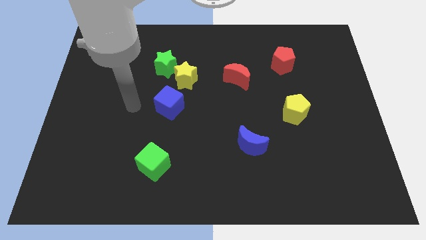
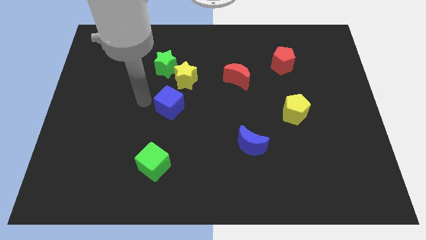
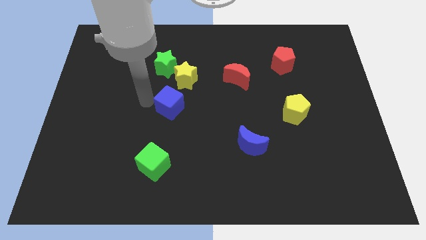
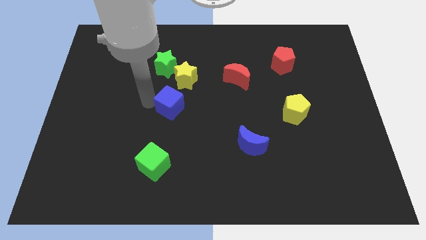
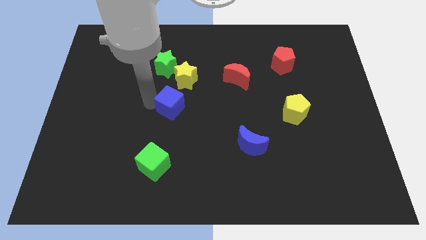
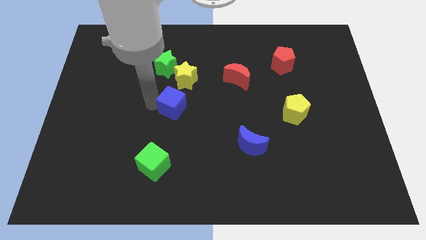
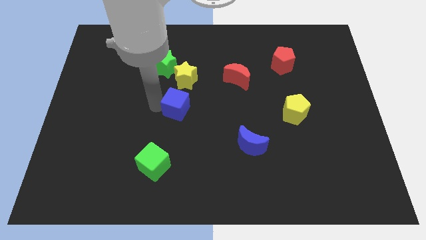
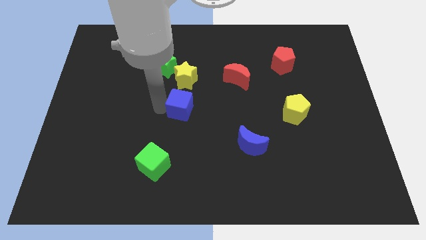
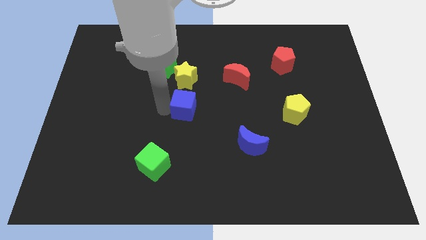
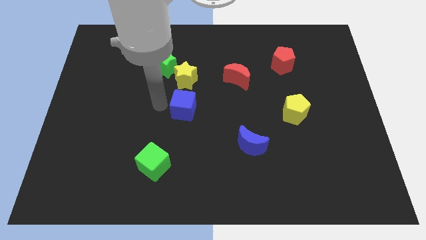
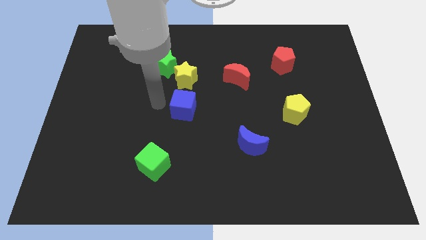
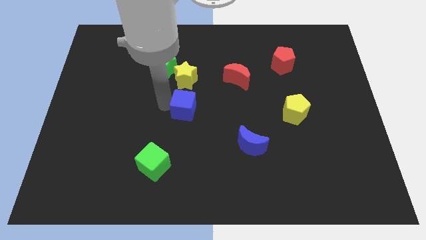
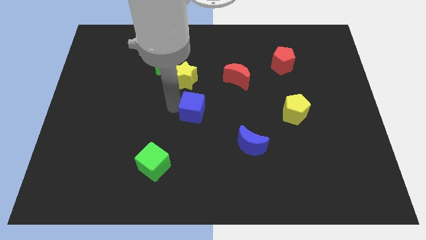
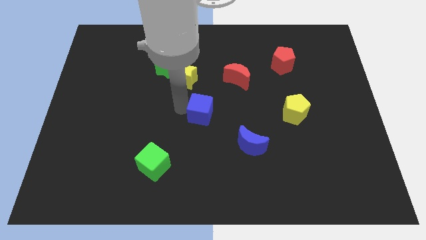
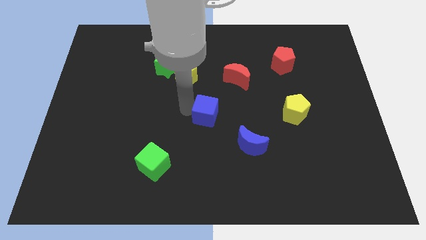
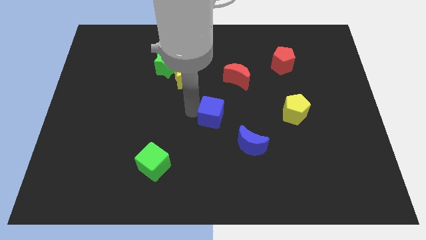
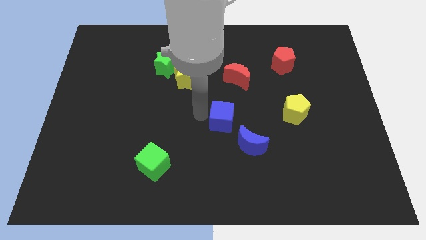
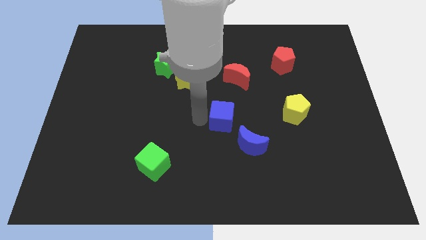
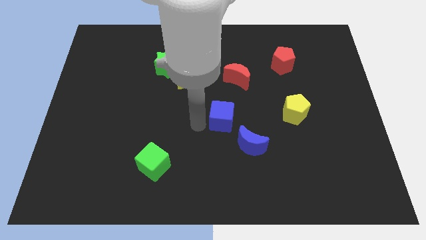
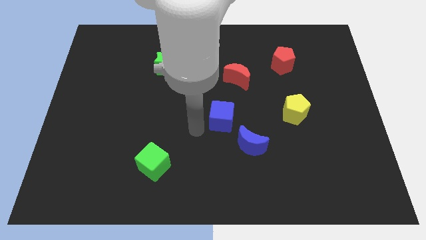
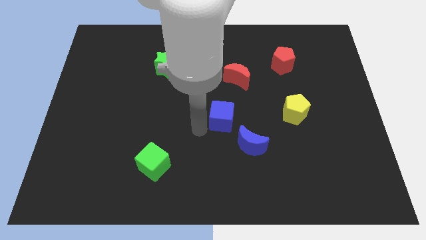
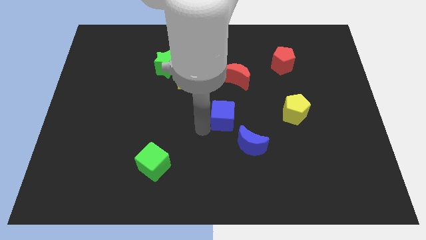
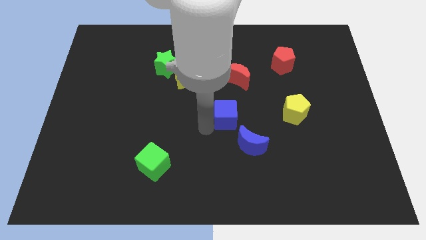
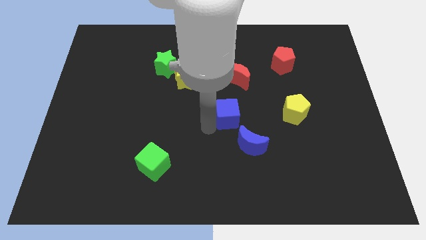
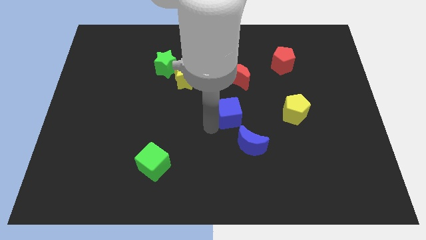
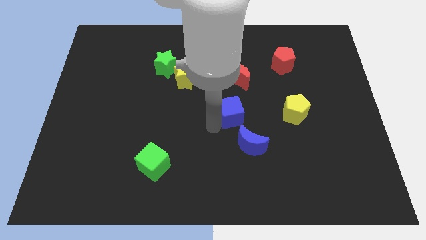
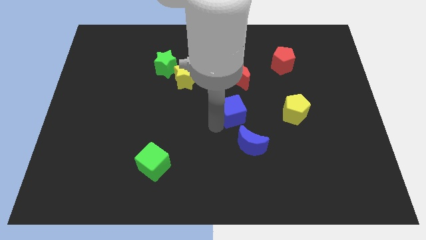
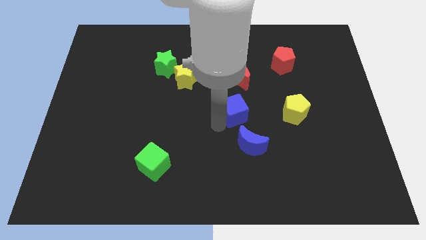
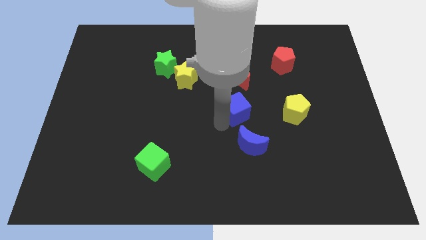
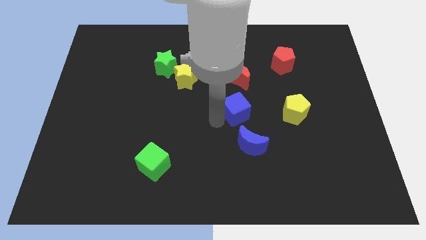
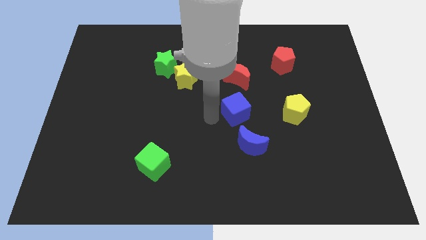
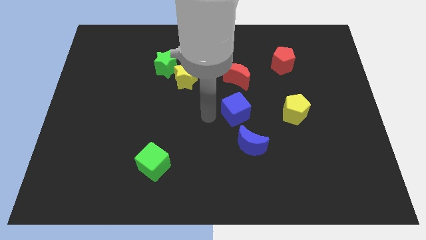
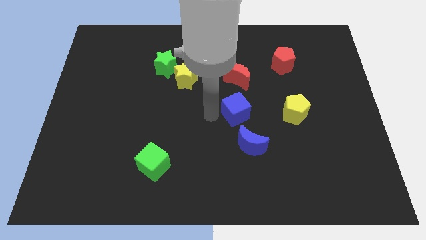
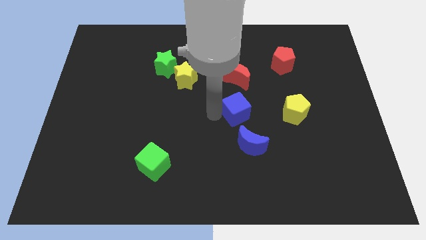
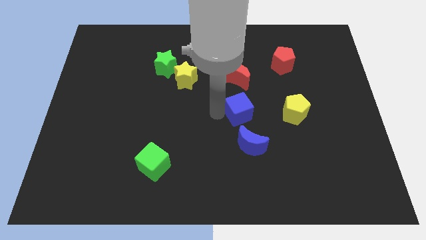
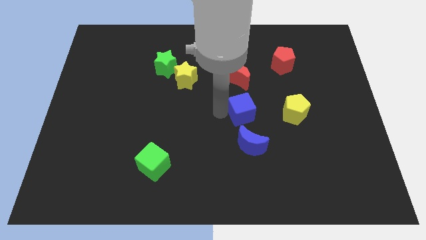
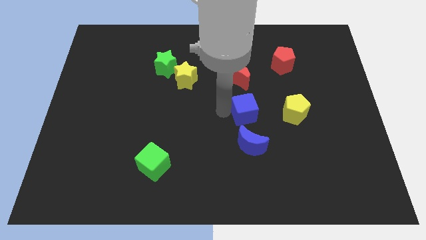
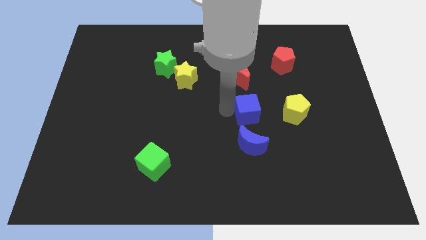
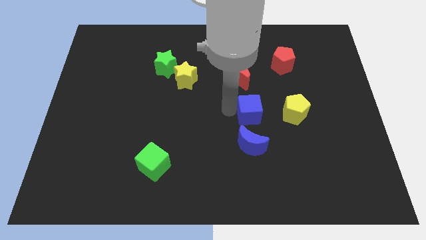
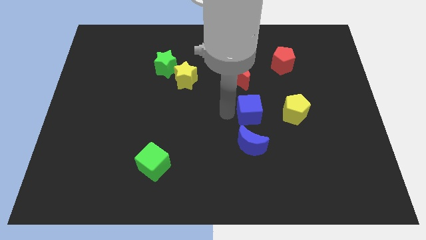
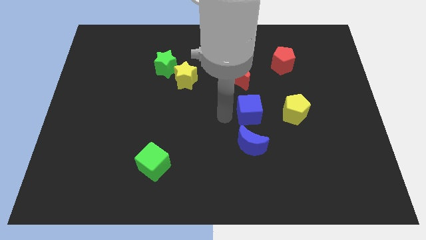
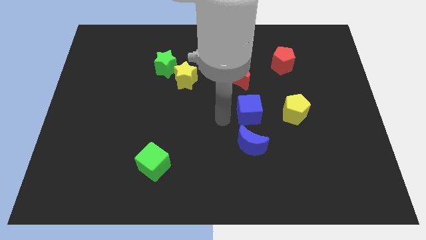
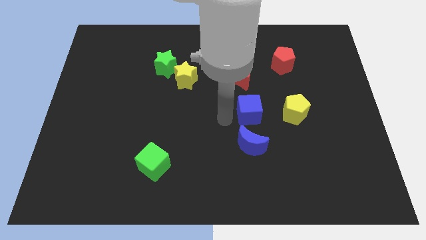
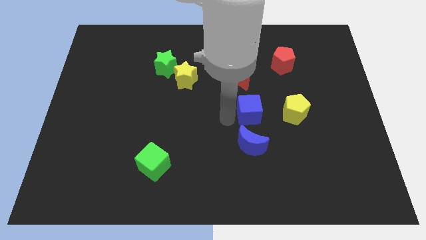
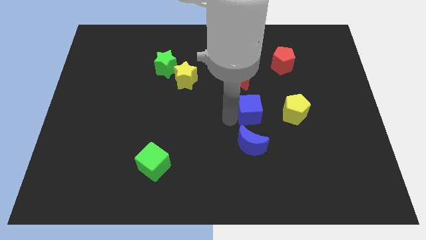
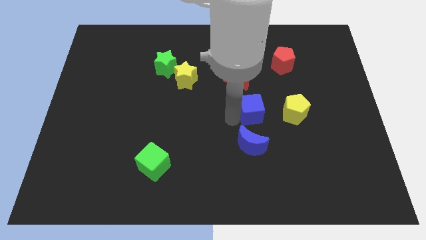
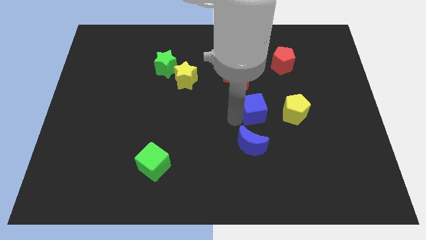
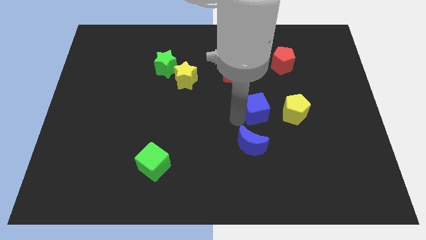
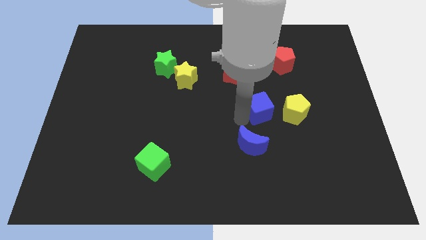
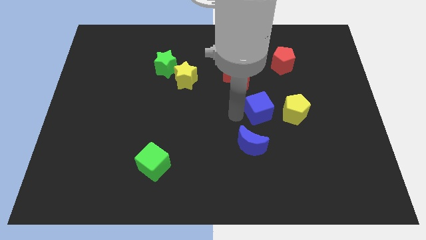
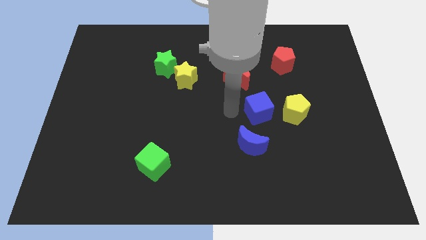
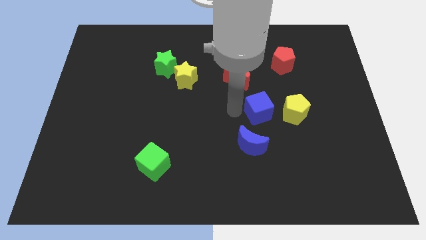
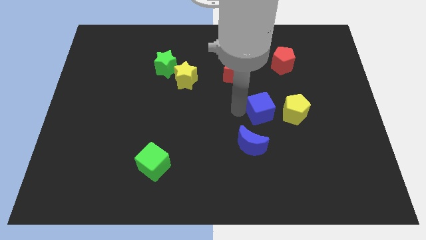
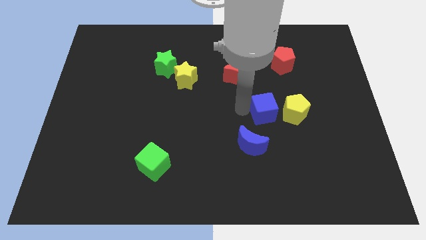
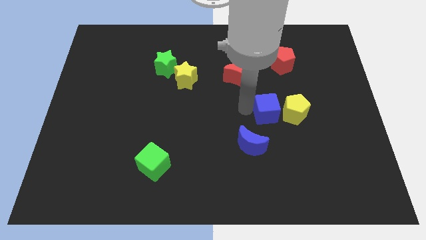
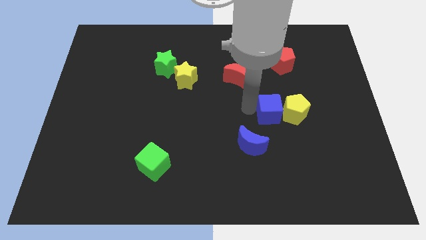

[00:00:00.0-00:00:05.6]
push the blue cube towards the yellow pentagon
